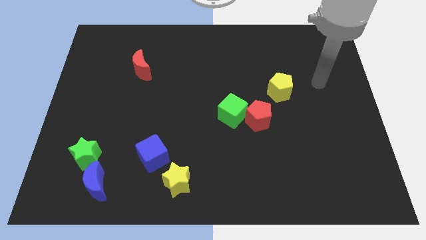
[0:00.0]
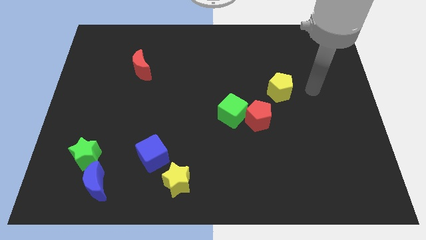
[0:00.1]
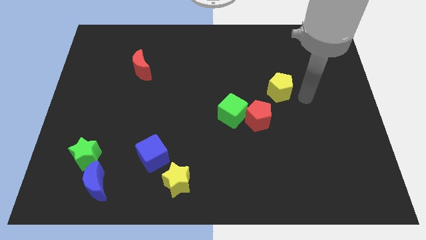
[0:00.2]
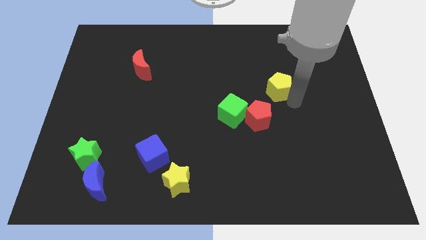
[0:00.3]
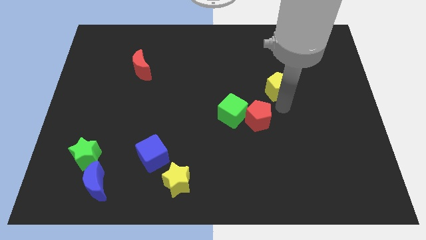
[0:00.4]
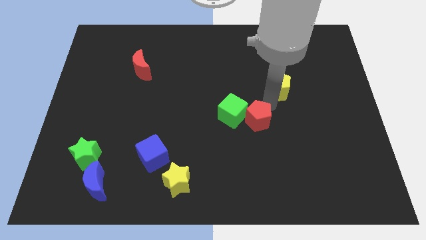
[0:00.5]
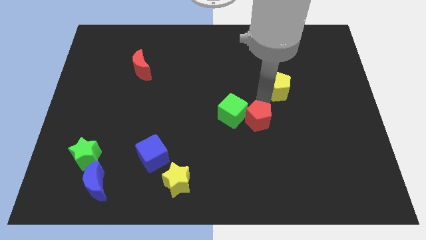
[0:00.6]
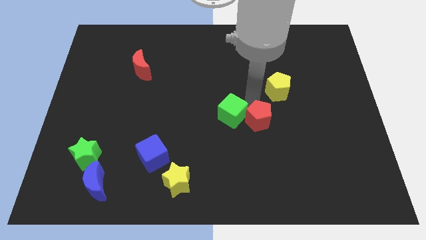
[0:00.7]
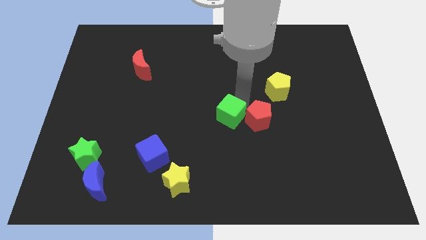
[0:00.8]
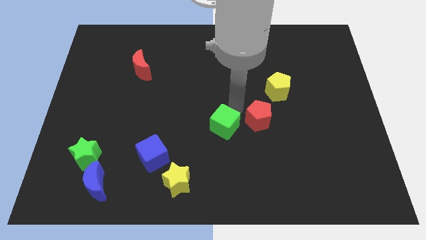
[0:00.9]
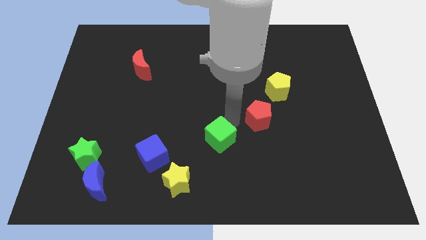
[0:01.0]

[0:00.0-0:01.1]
pull the red pentagon apart from the green cube

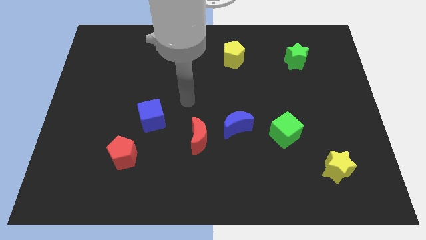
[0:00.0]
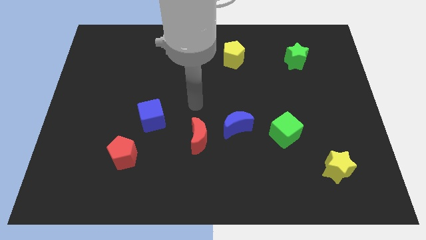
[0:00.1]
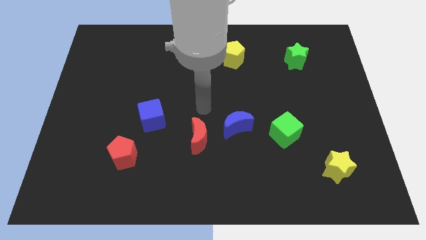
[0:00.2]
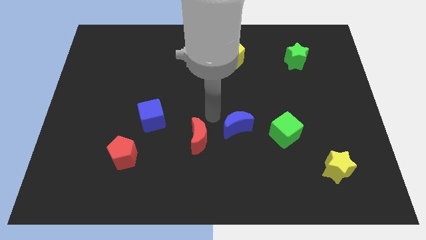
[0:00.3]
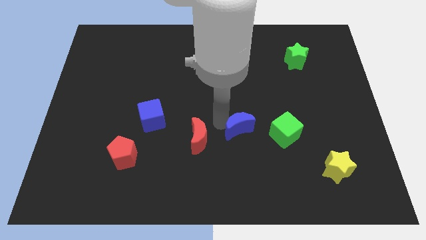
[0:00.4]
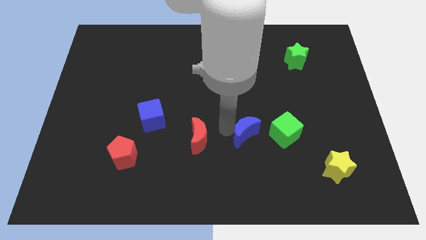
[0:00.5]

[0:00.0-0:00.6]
move the red moon away from the blue moon

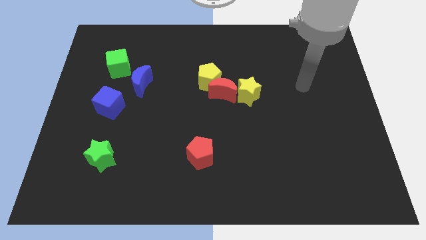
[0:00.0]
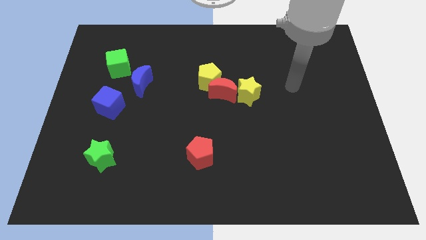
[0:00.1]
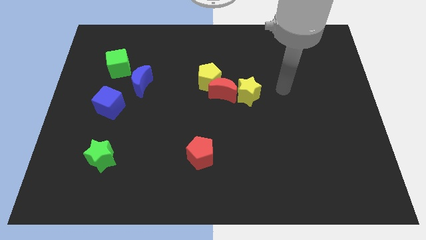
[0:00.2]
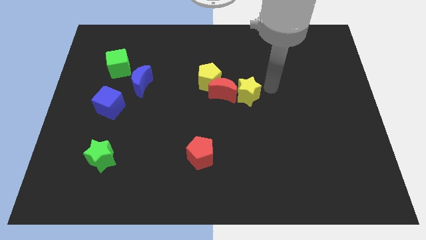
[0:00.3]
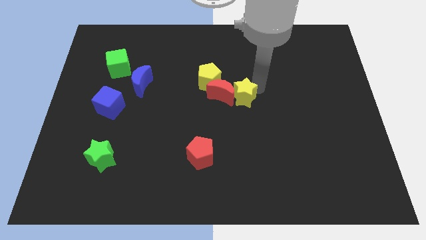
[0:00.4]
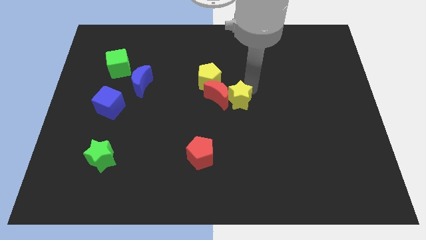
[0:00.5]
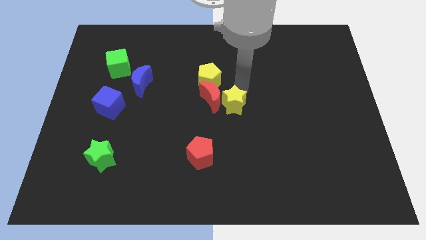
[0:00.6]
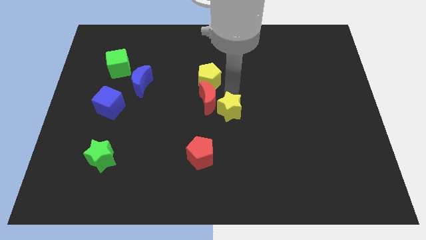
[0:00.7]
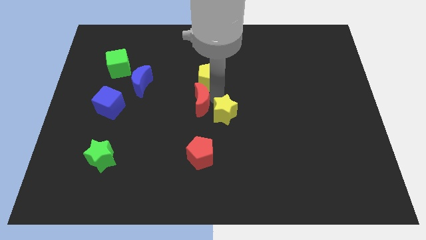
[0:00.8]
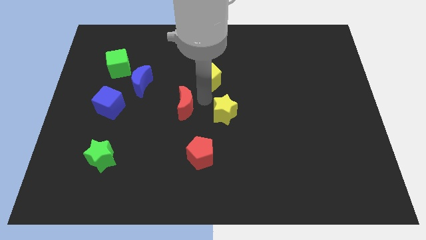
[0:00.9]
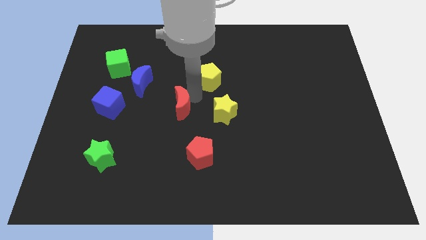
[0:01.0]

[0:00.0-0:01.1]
move the yellow pentagon away from the red moon

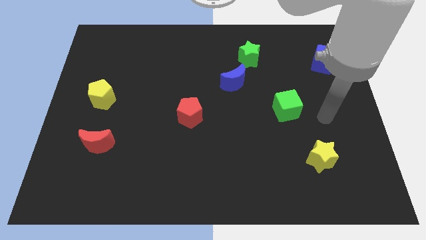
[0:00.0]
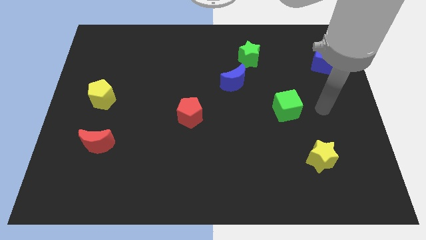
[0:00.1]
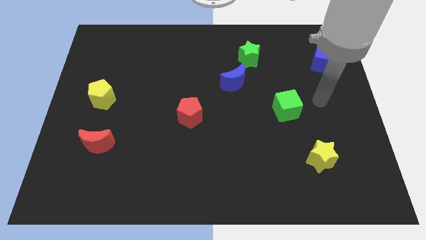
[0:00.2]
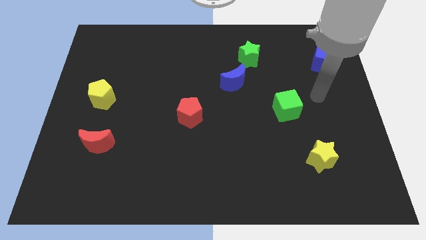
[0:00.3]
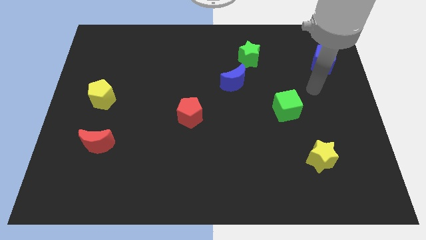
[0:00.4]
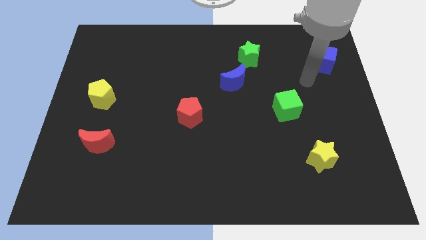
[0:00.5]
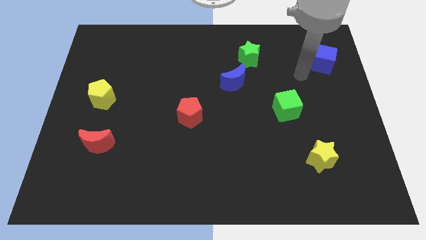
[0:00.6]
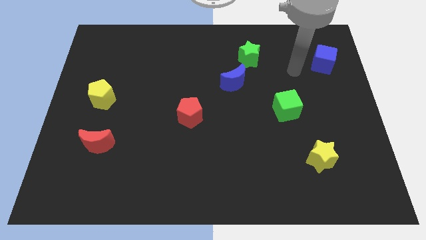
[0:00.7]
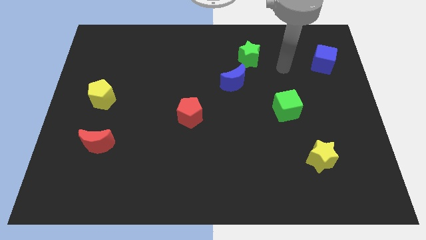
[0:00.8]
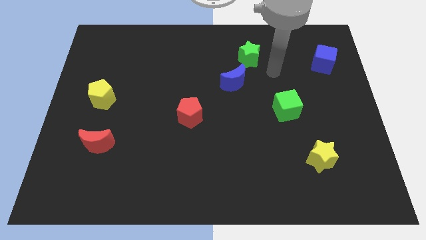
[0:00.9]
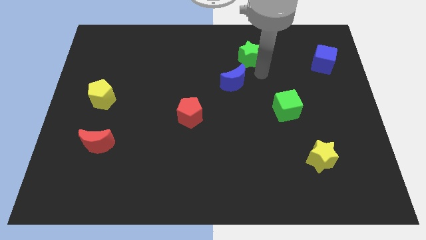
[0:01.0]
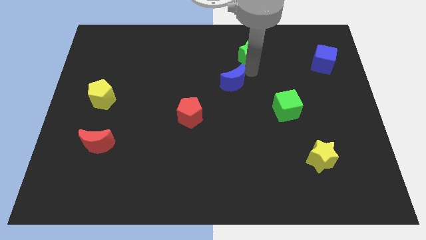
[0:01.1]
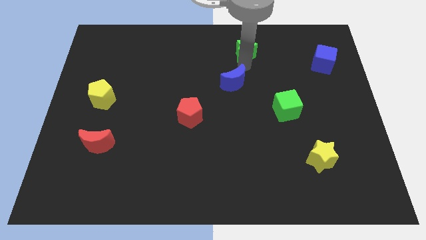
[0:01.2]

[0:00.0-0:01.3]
pull the blue moon apart from the green star

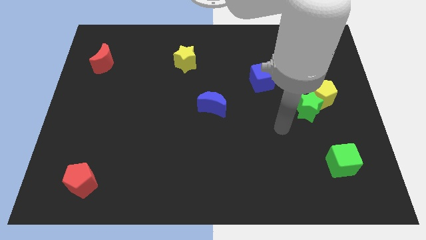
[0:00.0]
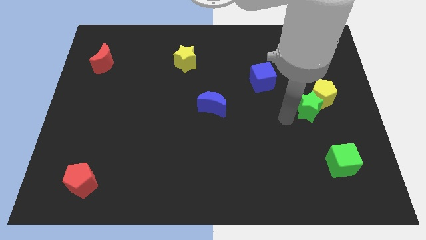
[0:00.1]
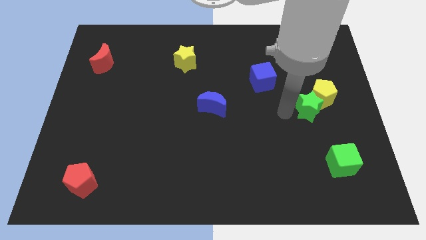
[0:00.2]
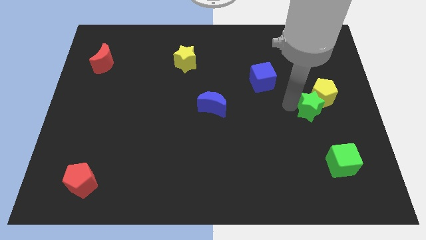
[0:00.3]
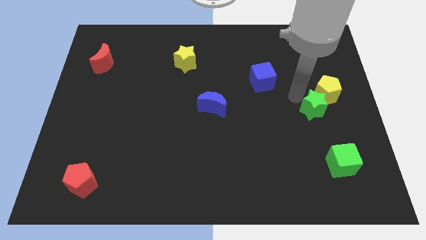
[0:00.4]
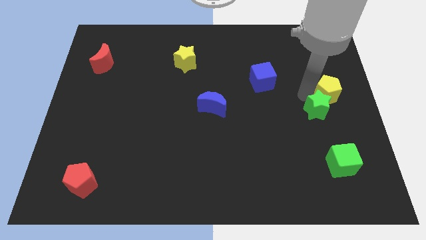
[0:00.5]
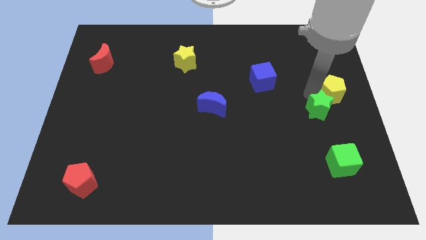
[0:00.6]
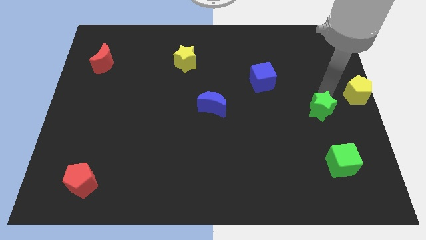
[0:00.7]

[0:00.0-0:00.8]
pull the green star apart from the yellow pentagon

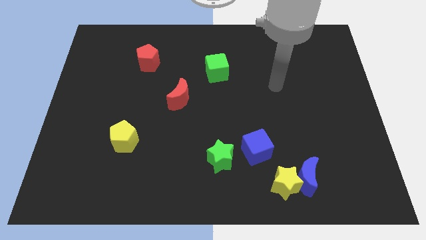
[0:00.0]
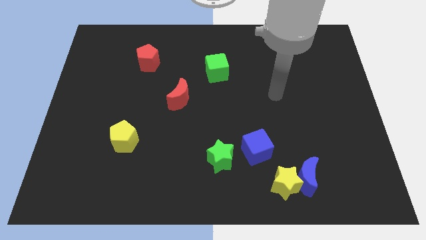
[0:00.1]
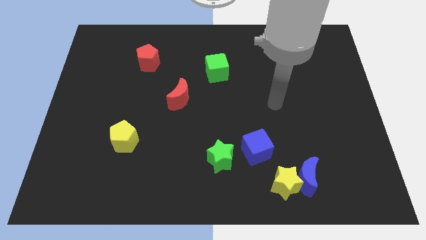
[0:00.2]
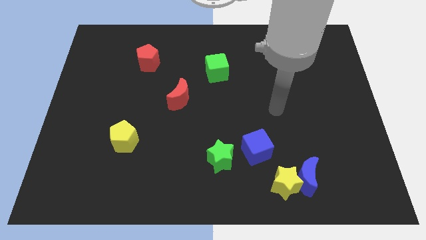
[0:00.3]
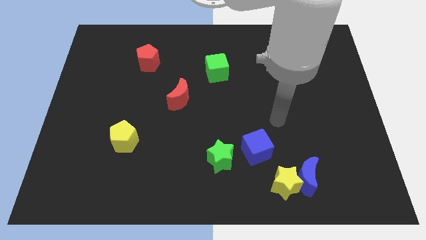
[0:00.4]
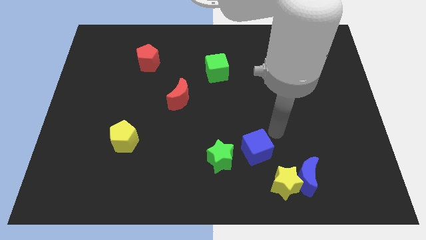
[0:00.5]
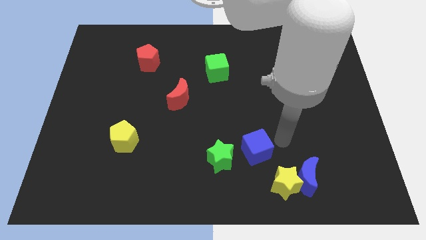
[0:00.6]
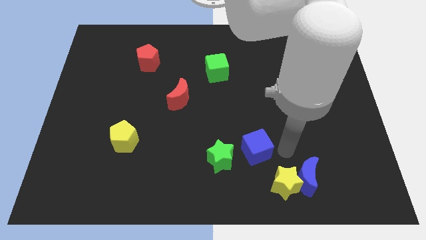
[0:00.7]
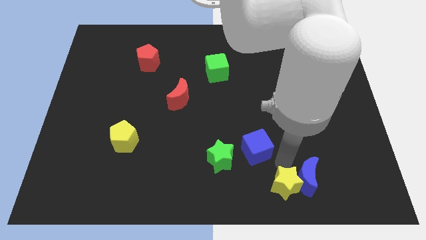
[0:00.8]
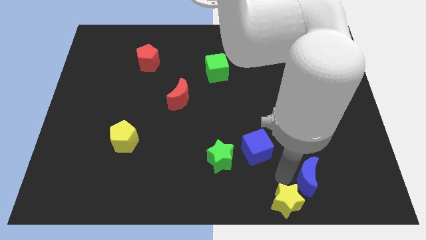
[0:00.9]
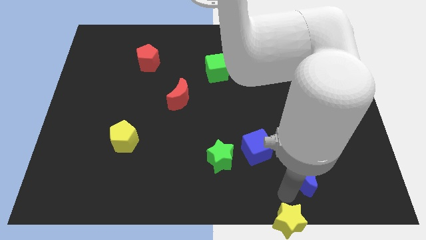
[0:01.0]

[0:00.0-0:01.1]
separate the blue moon from the yellow star

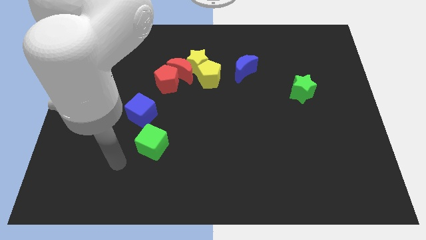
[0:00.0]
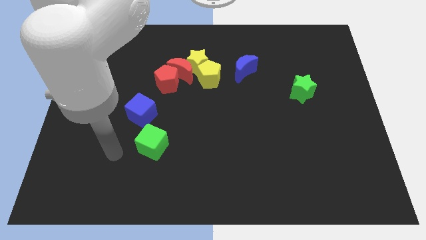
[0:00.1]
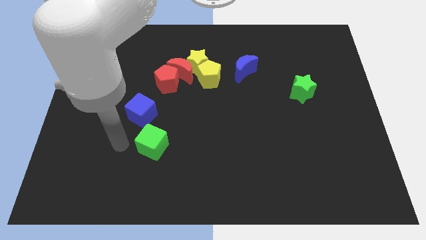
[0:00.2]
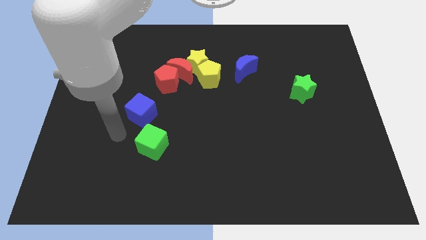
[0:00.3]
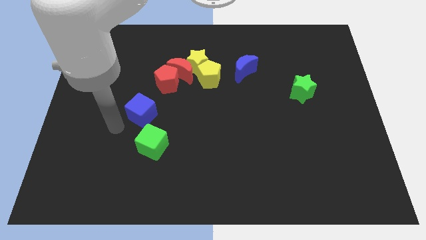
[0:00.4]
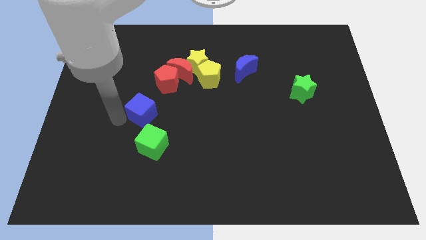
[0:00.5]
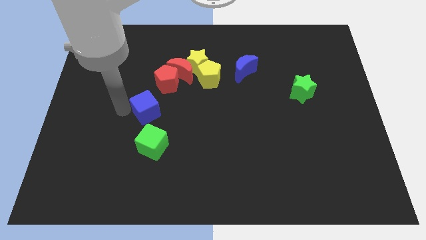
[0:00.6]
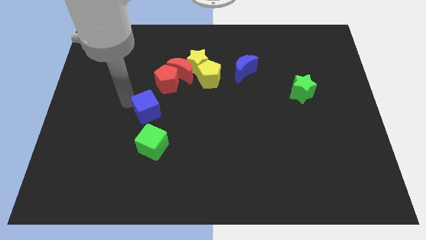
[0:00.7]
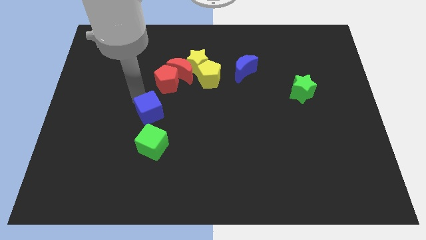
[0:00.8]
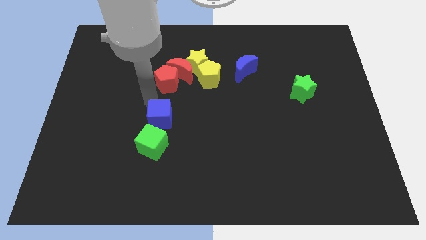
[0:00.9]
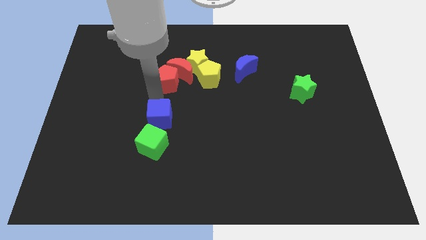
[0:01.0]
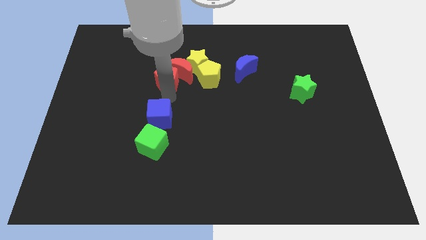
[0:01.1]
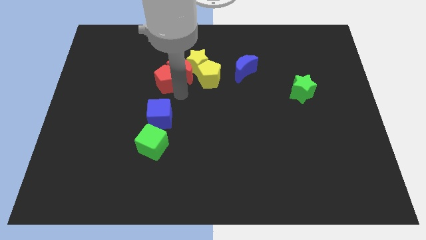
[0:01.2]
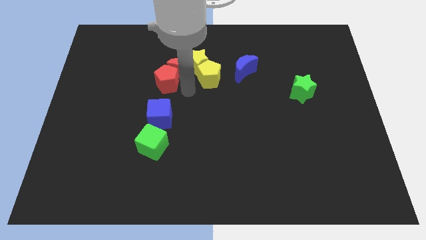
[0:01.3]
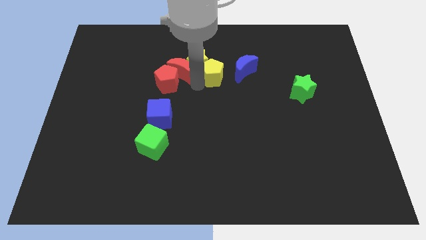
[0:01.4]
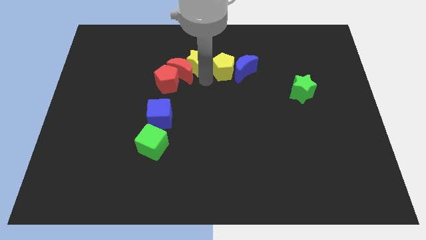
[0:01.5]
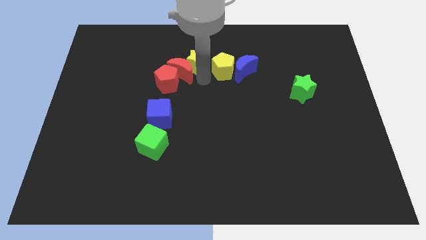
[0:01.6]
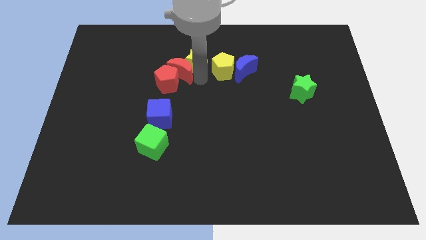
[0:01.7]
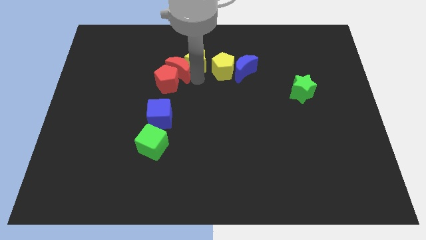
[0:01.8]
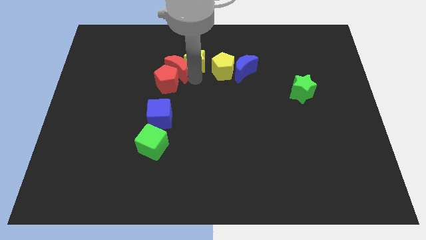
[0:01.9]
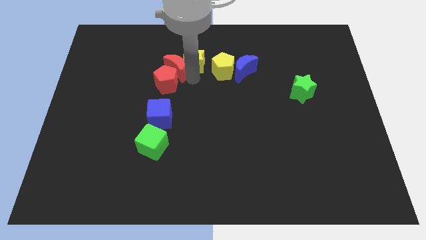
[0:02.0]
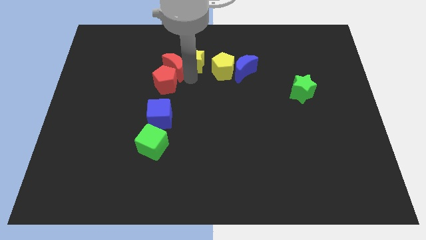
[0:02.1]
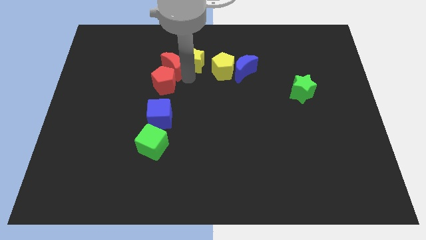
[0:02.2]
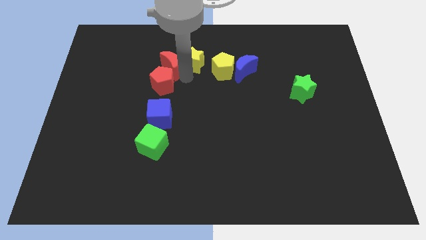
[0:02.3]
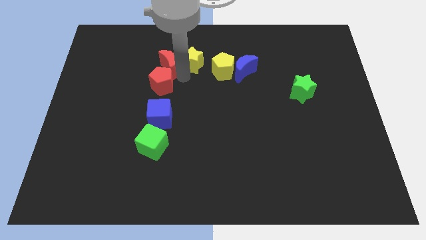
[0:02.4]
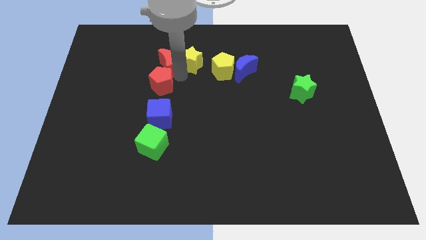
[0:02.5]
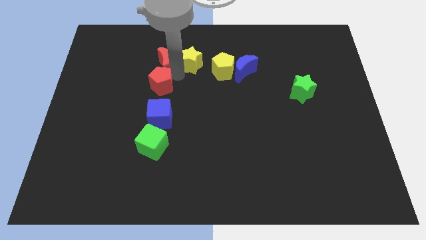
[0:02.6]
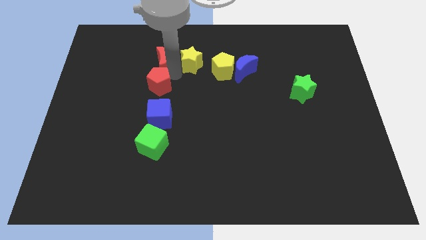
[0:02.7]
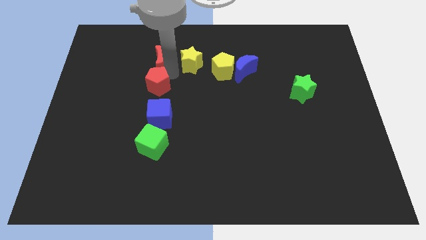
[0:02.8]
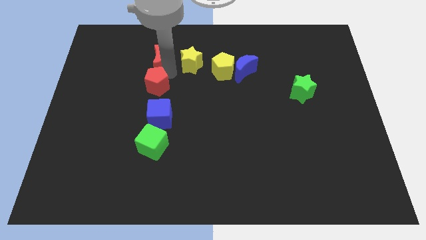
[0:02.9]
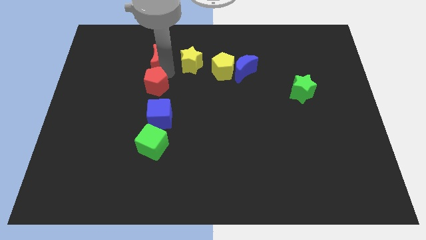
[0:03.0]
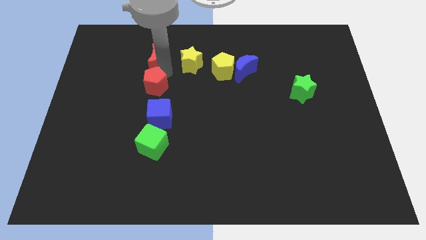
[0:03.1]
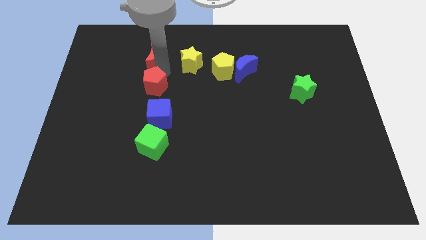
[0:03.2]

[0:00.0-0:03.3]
move the red moon away from the yellow star, red pentagon, and yellow pentagon
